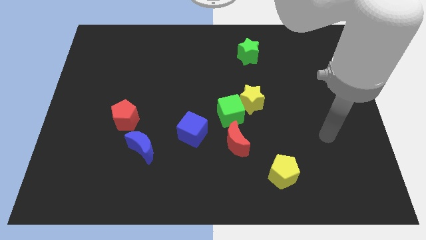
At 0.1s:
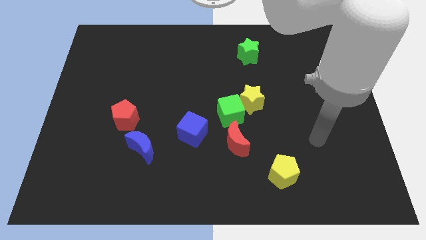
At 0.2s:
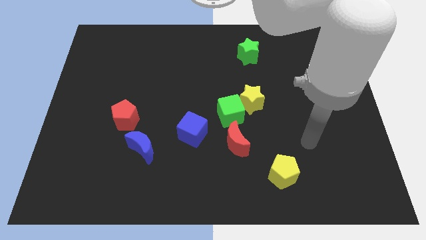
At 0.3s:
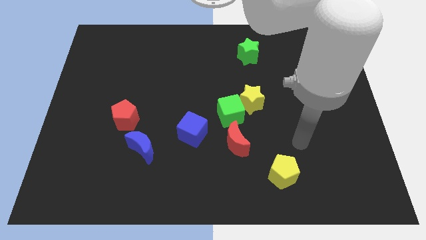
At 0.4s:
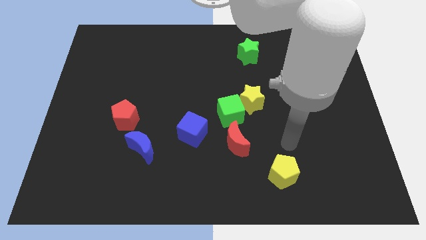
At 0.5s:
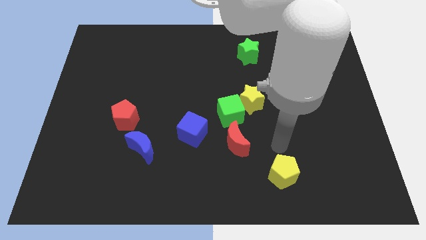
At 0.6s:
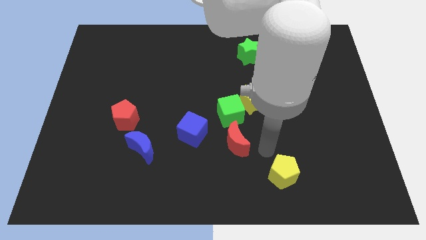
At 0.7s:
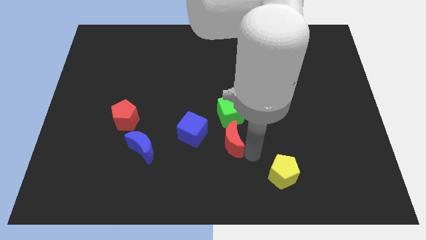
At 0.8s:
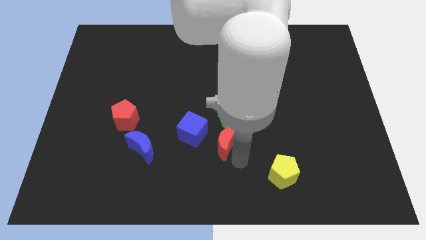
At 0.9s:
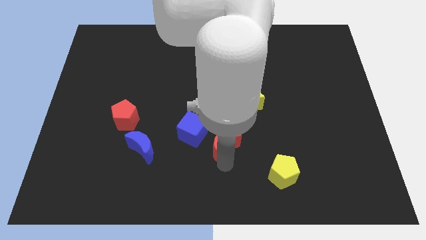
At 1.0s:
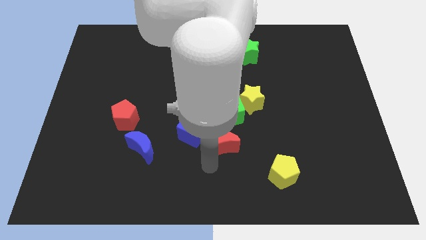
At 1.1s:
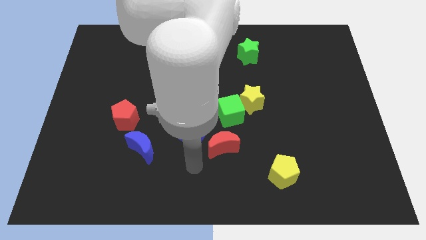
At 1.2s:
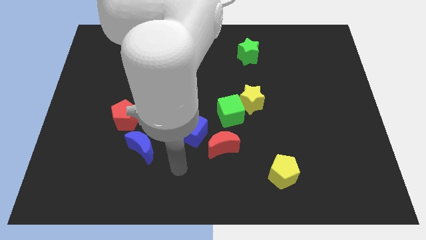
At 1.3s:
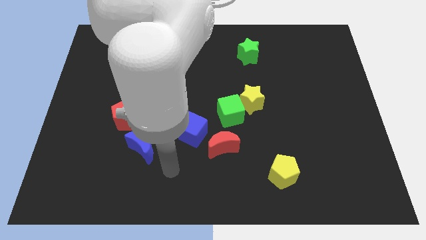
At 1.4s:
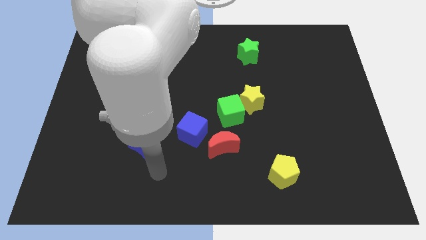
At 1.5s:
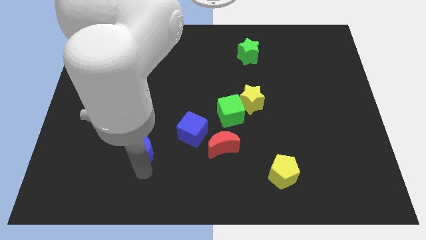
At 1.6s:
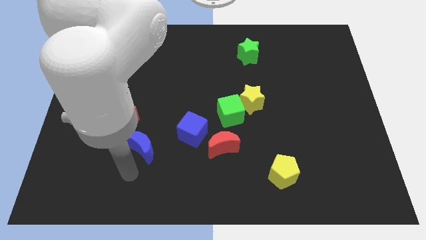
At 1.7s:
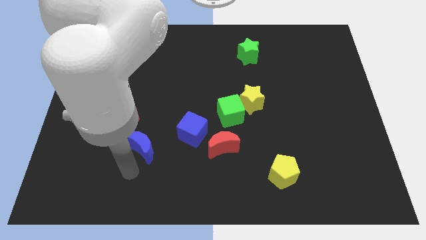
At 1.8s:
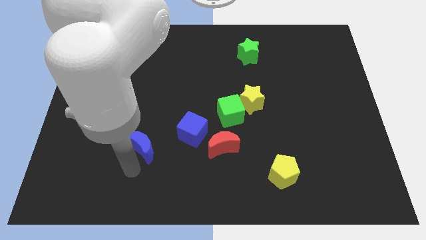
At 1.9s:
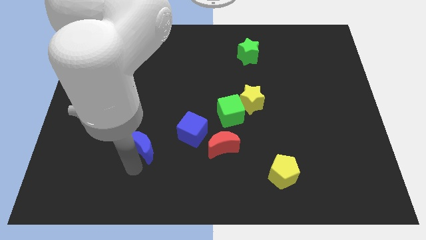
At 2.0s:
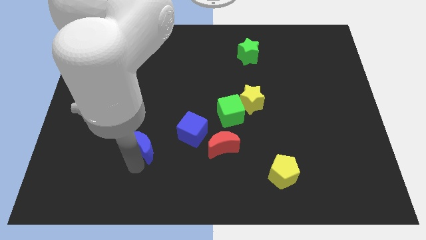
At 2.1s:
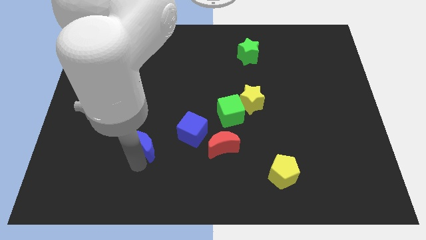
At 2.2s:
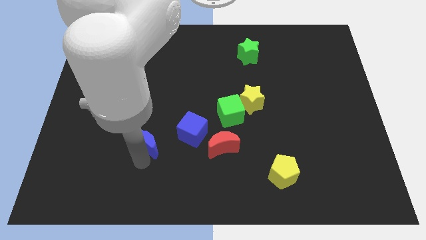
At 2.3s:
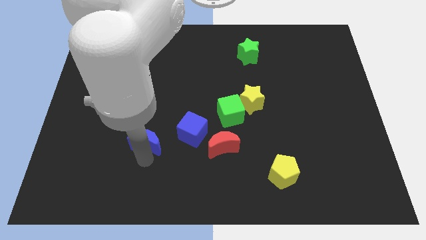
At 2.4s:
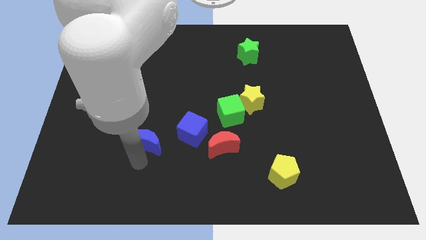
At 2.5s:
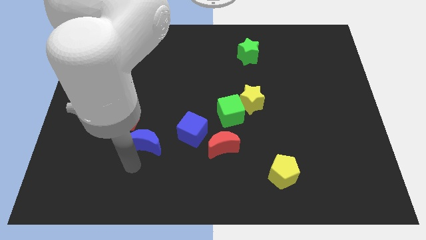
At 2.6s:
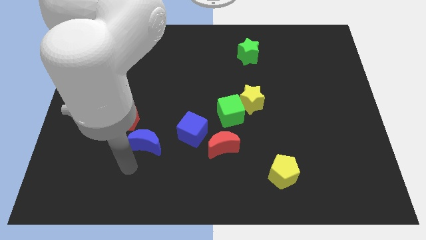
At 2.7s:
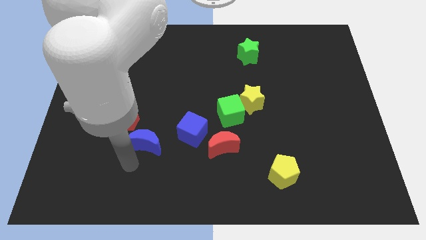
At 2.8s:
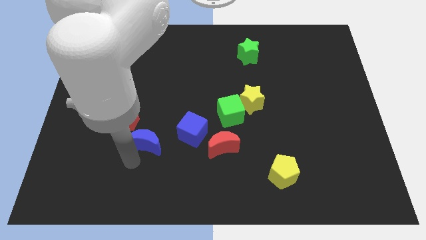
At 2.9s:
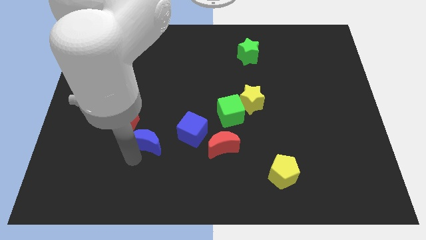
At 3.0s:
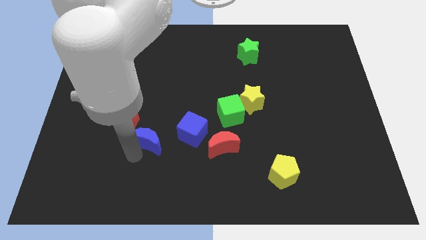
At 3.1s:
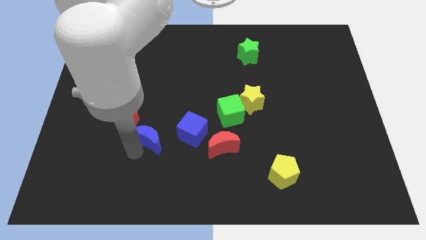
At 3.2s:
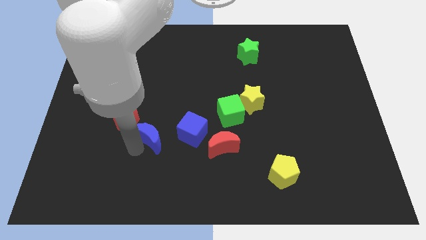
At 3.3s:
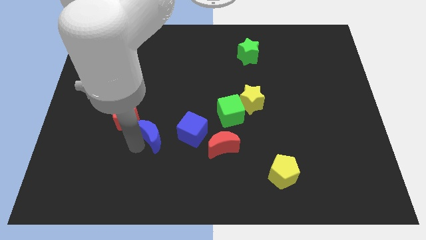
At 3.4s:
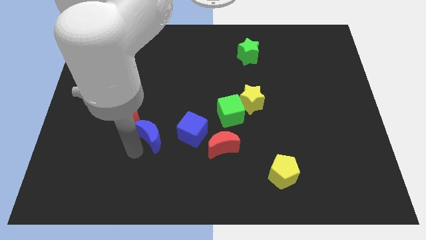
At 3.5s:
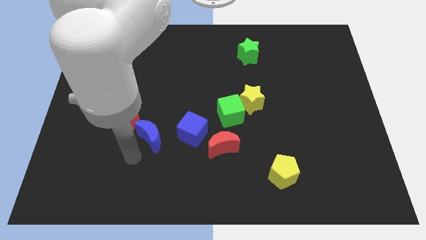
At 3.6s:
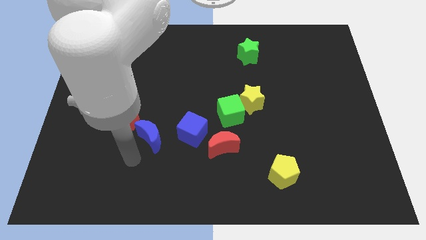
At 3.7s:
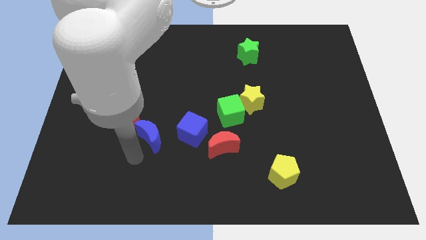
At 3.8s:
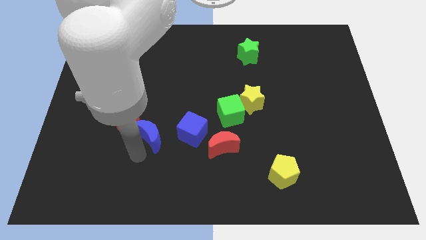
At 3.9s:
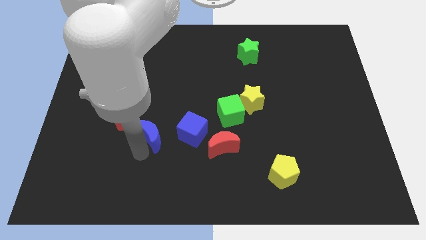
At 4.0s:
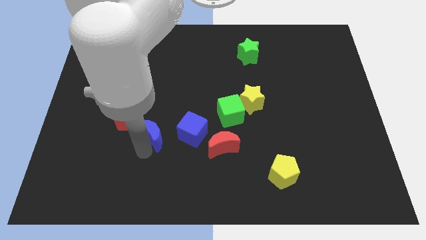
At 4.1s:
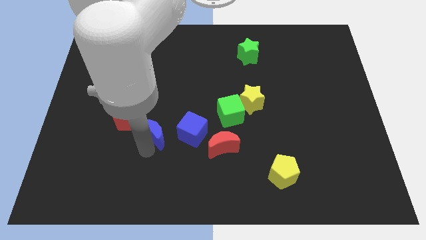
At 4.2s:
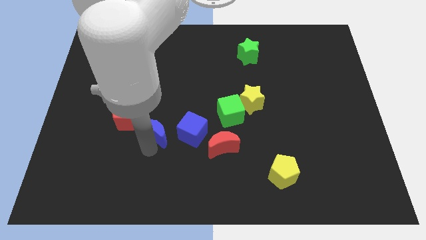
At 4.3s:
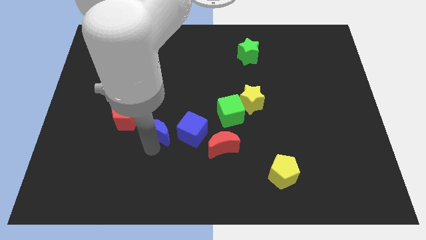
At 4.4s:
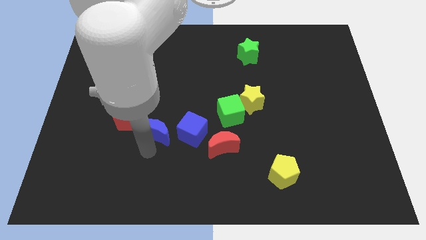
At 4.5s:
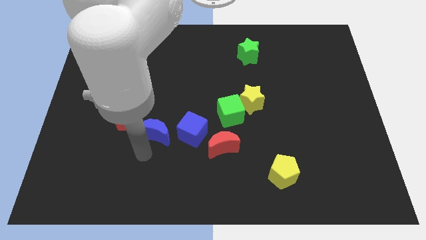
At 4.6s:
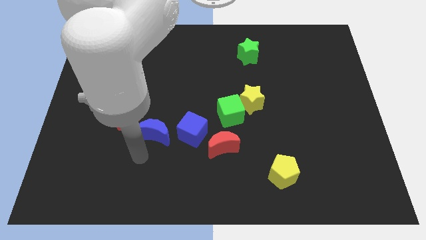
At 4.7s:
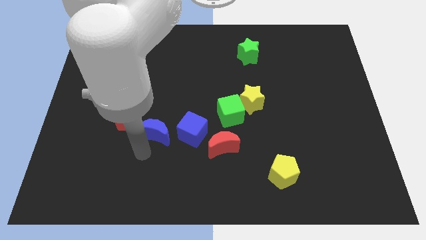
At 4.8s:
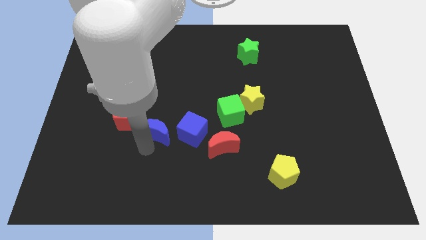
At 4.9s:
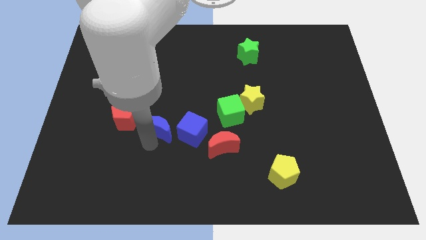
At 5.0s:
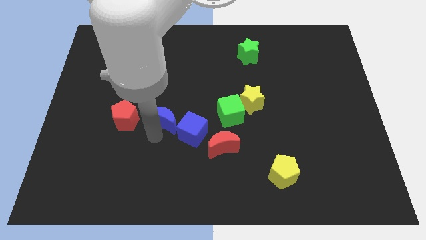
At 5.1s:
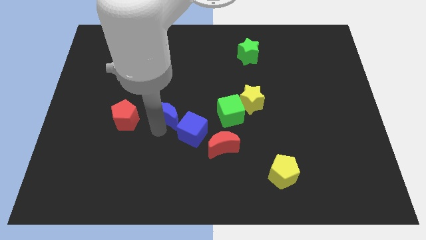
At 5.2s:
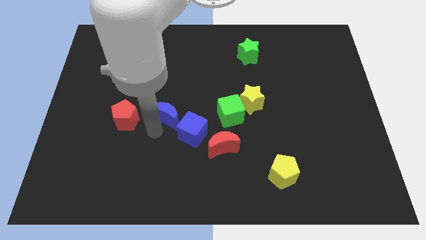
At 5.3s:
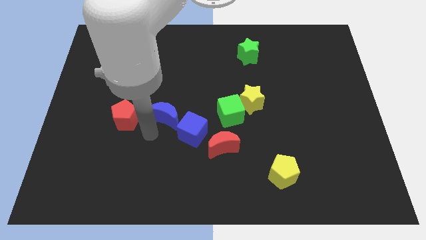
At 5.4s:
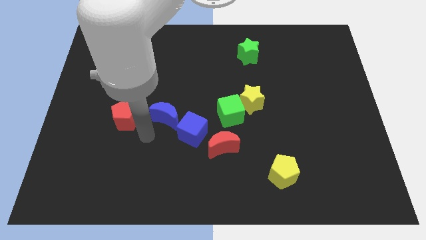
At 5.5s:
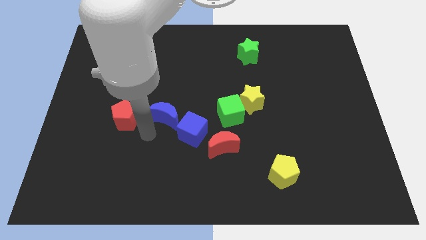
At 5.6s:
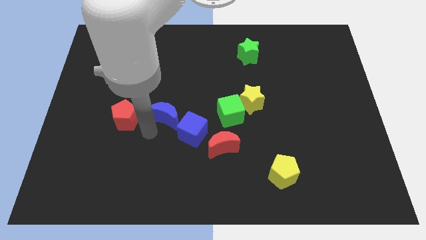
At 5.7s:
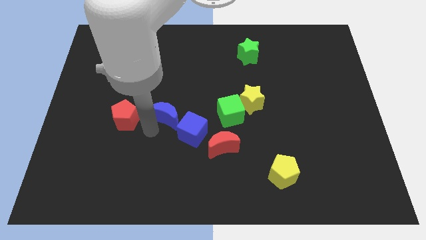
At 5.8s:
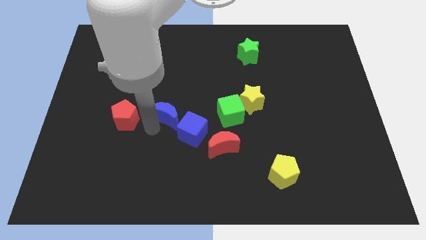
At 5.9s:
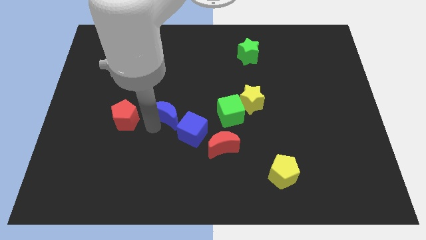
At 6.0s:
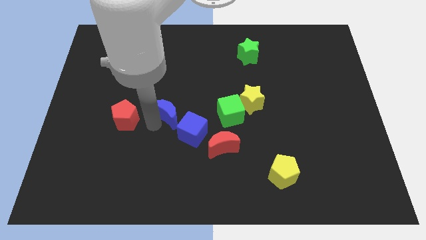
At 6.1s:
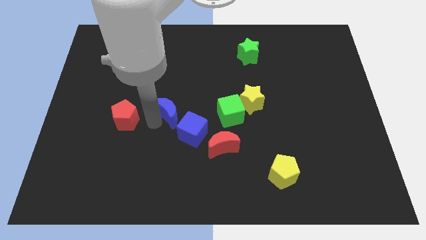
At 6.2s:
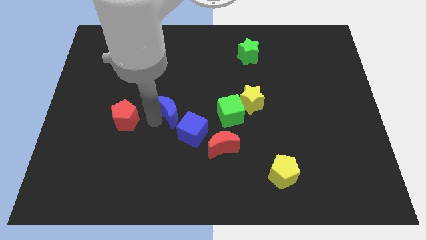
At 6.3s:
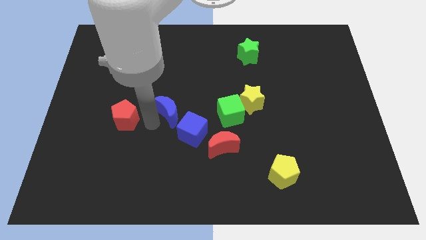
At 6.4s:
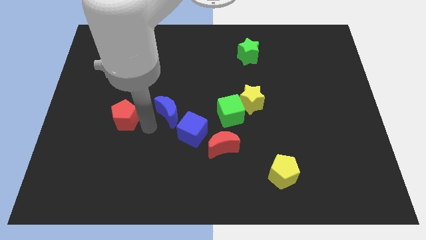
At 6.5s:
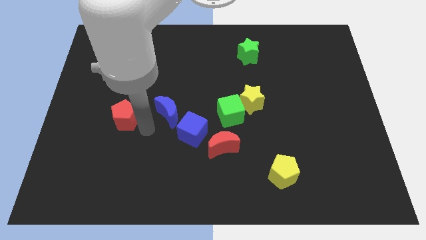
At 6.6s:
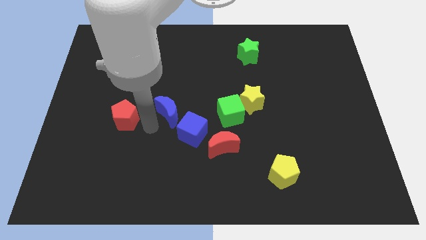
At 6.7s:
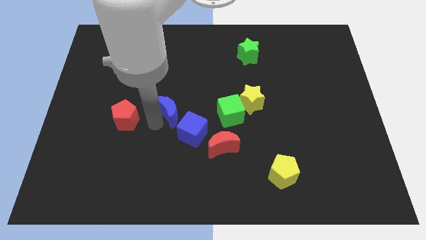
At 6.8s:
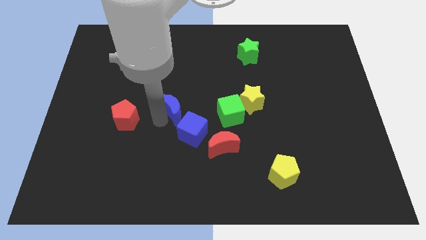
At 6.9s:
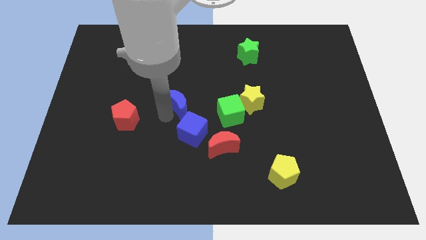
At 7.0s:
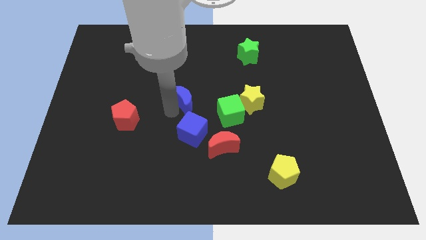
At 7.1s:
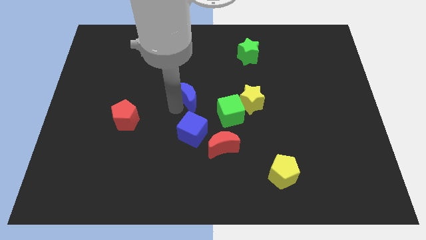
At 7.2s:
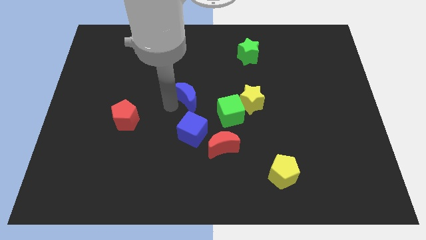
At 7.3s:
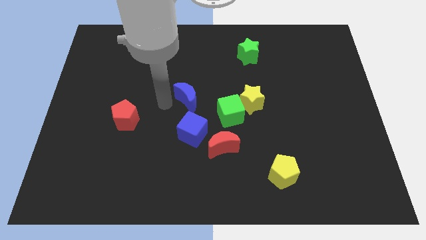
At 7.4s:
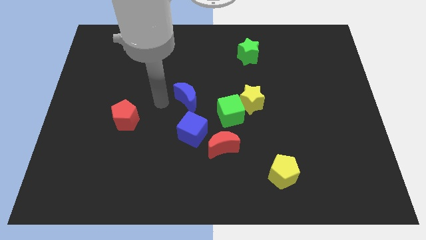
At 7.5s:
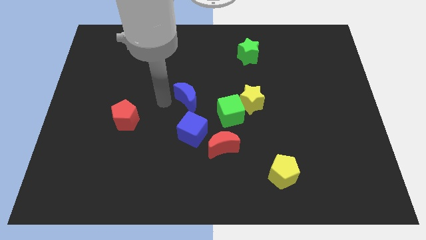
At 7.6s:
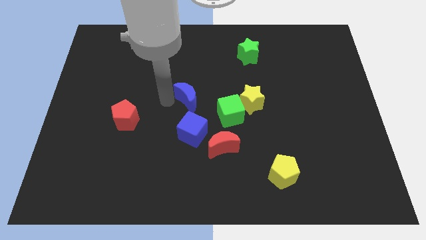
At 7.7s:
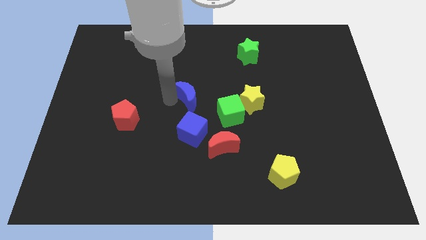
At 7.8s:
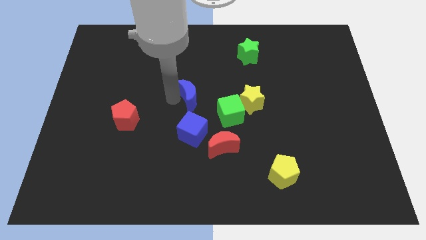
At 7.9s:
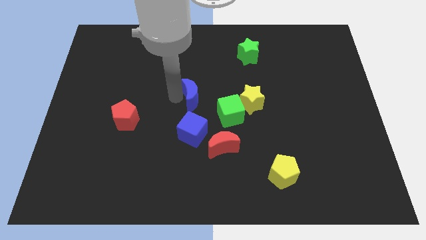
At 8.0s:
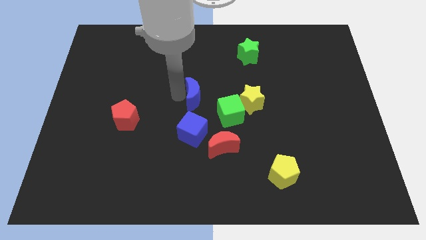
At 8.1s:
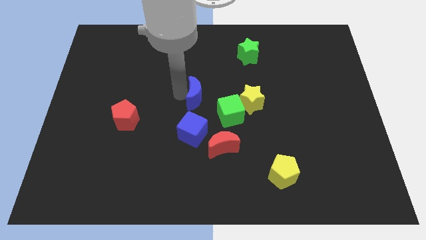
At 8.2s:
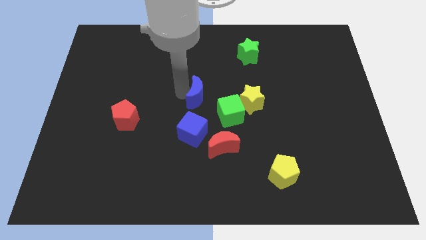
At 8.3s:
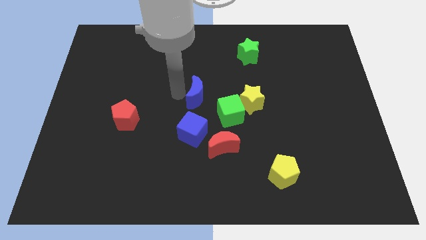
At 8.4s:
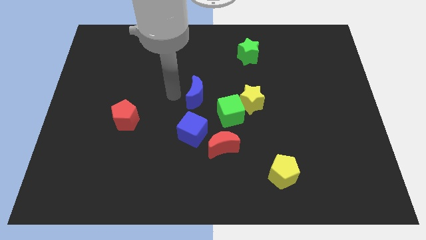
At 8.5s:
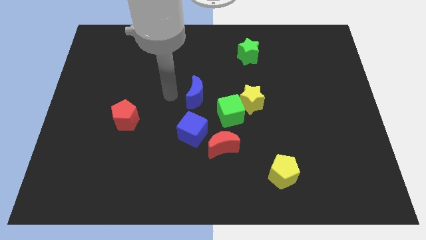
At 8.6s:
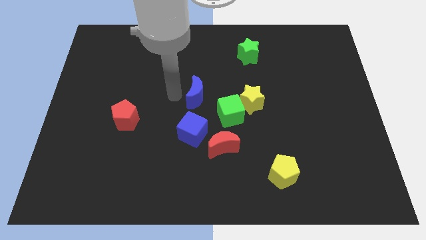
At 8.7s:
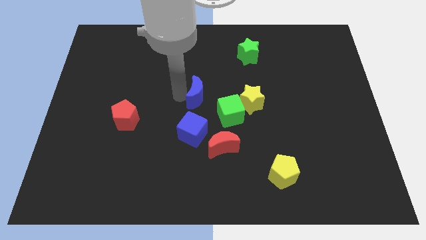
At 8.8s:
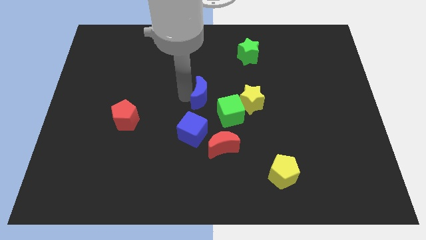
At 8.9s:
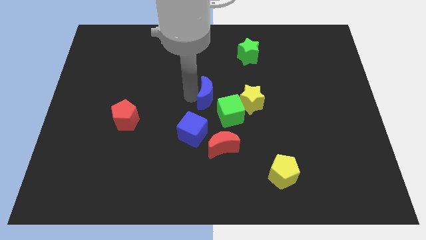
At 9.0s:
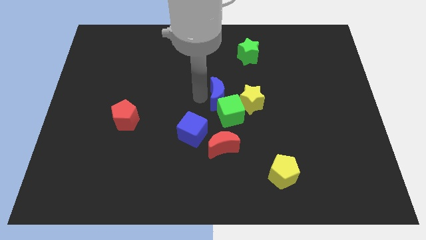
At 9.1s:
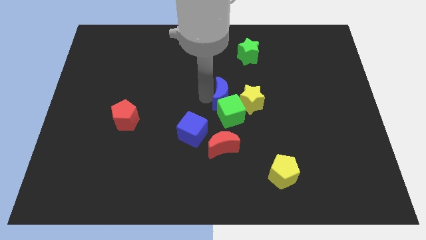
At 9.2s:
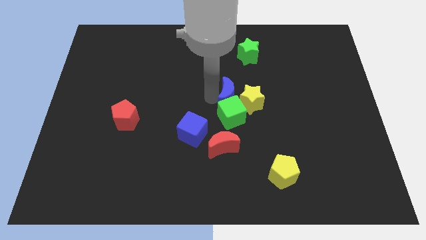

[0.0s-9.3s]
slide the blue moon to the yellow star
